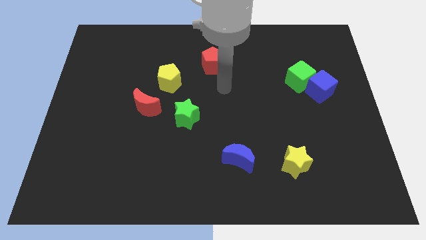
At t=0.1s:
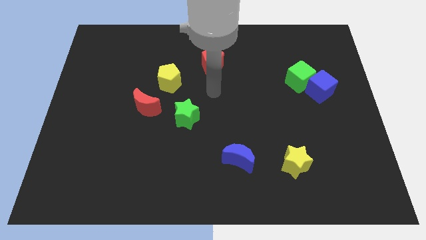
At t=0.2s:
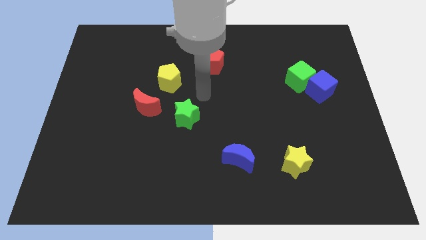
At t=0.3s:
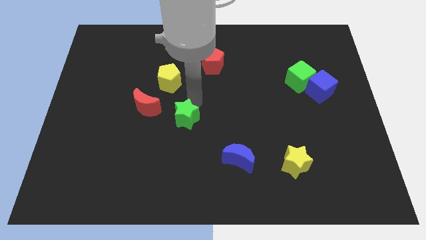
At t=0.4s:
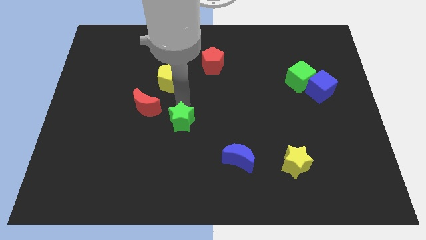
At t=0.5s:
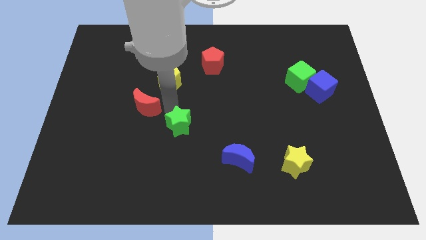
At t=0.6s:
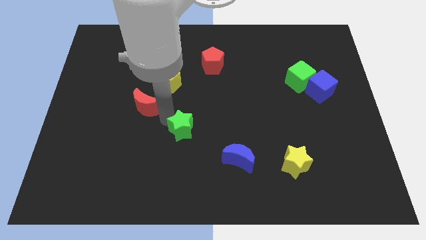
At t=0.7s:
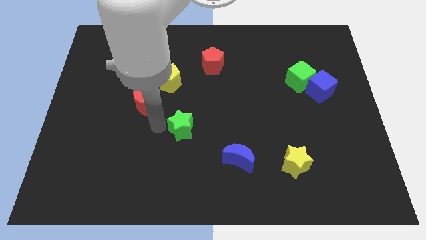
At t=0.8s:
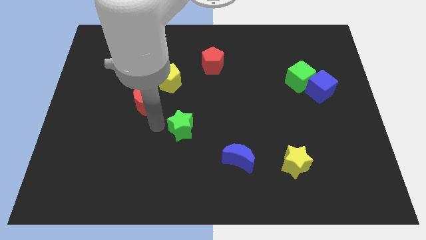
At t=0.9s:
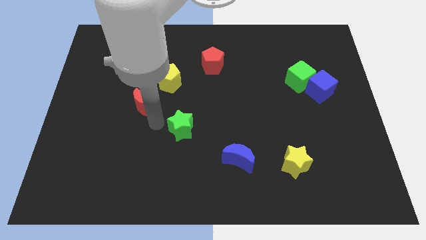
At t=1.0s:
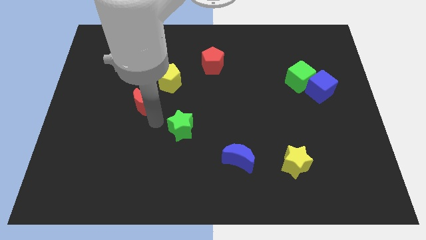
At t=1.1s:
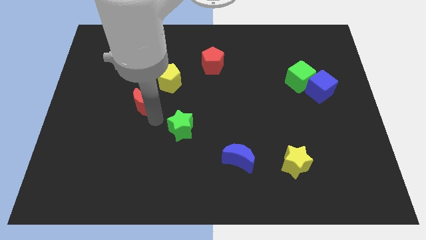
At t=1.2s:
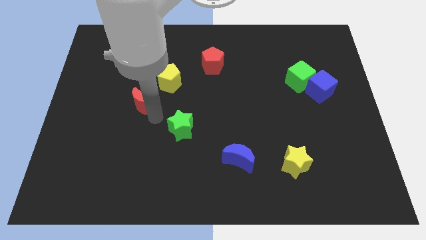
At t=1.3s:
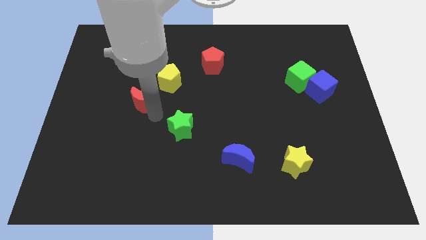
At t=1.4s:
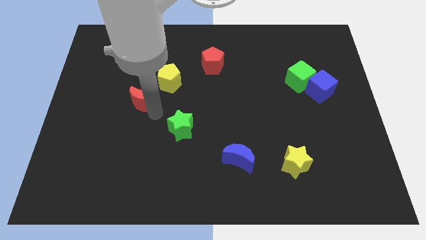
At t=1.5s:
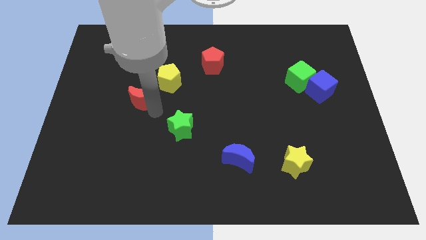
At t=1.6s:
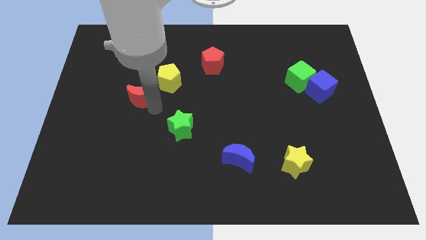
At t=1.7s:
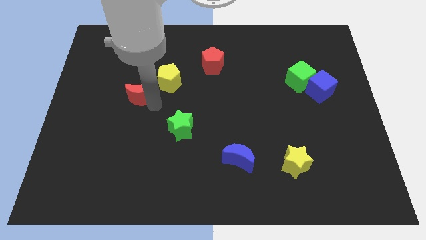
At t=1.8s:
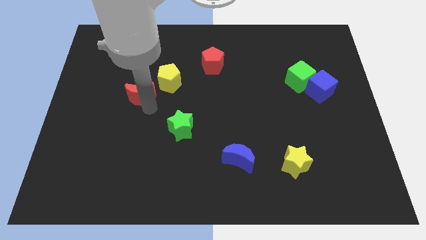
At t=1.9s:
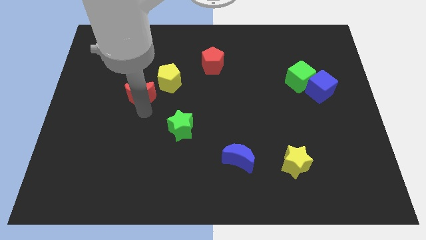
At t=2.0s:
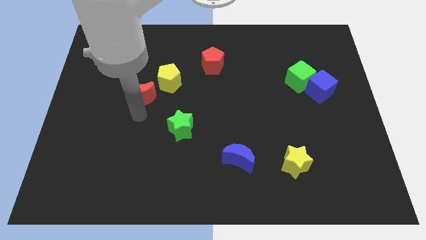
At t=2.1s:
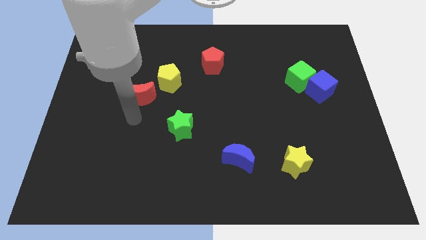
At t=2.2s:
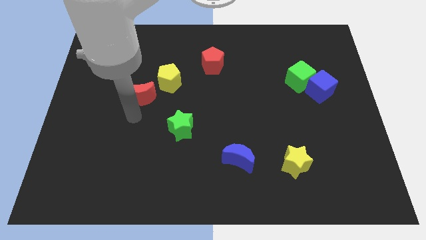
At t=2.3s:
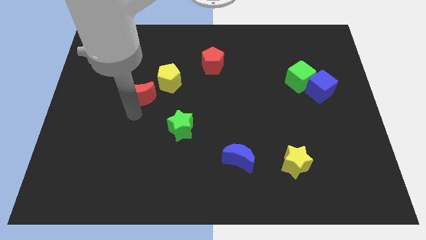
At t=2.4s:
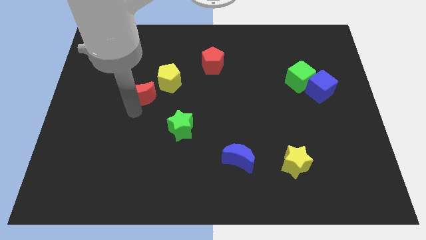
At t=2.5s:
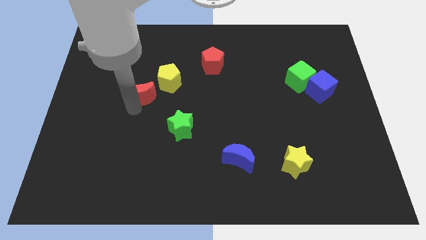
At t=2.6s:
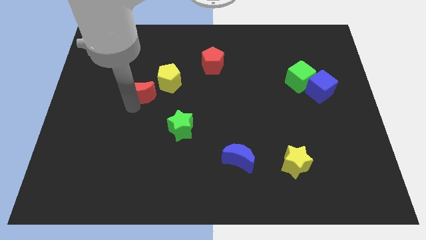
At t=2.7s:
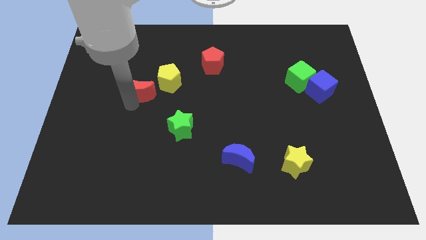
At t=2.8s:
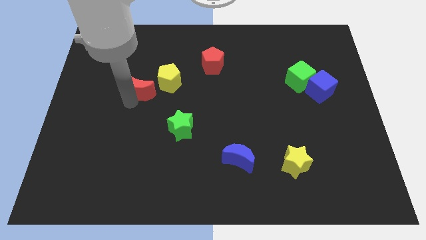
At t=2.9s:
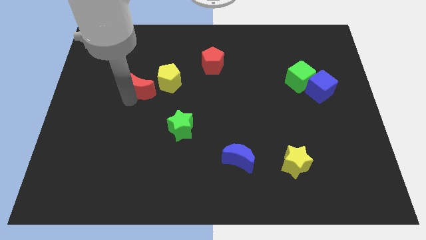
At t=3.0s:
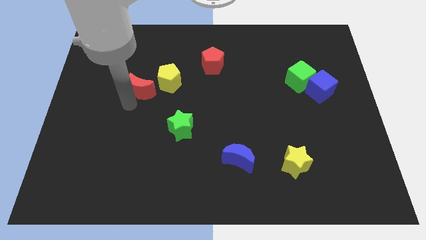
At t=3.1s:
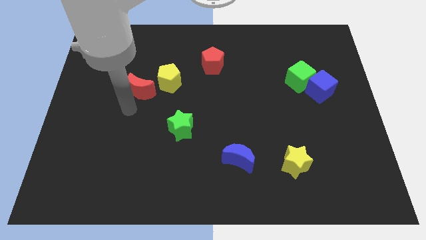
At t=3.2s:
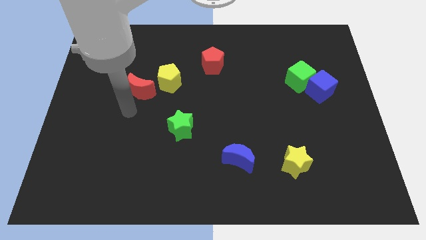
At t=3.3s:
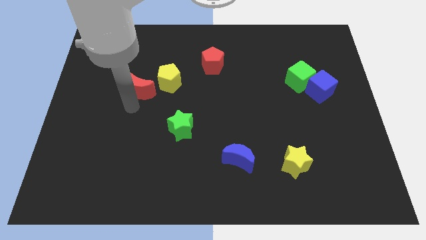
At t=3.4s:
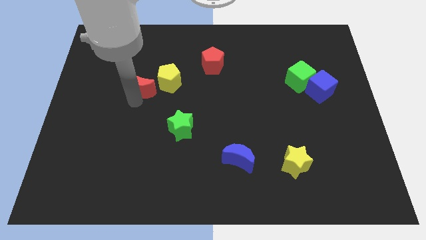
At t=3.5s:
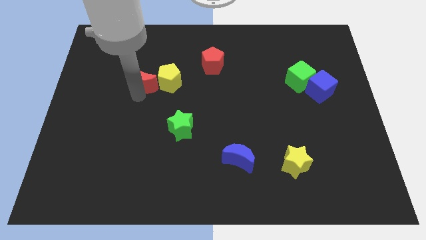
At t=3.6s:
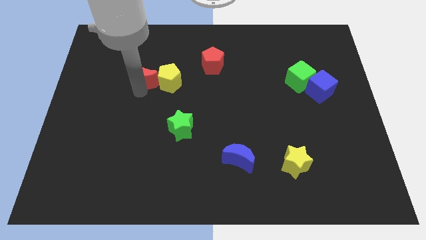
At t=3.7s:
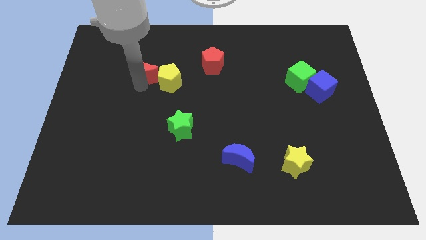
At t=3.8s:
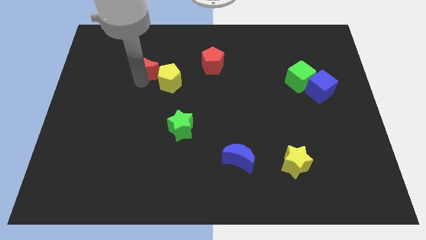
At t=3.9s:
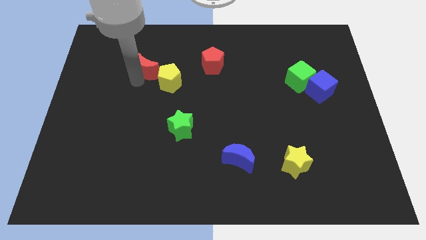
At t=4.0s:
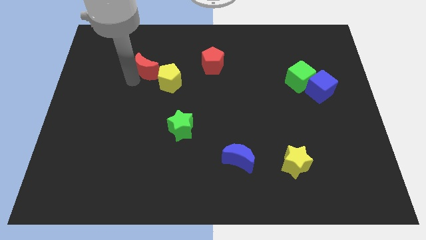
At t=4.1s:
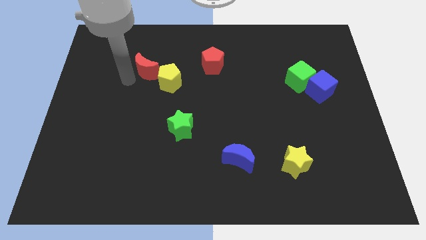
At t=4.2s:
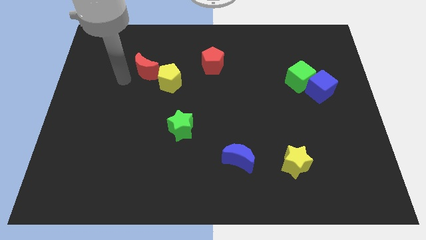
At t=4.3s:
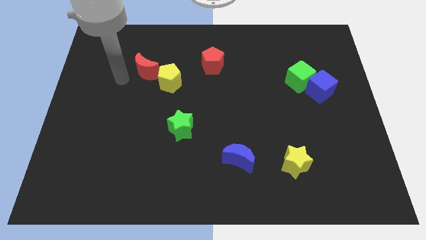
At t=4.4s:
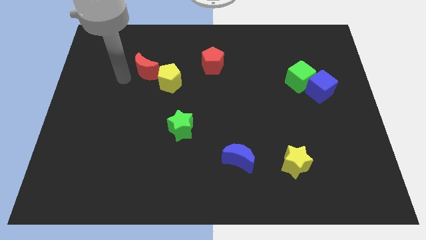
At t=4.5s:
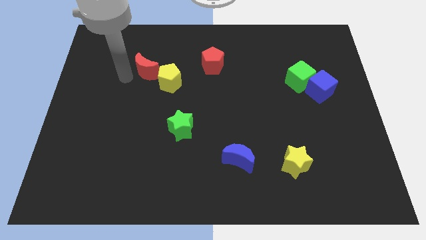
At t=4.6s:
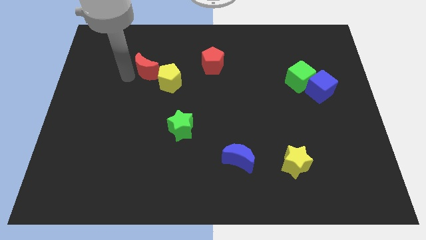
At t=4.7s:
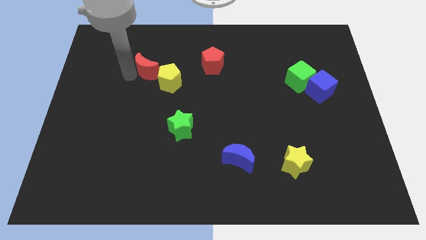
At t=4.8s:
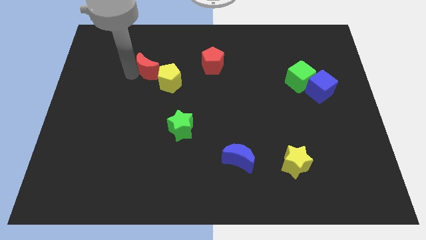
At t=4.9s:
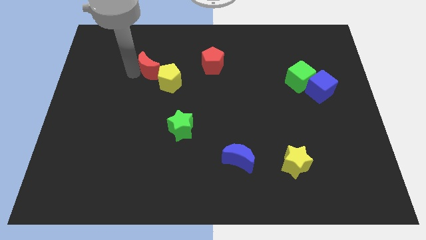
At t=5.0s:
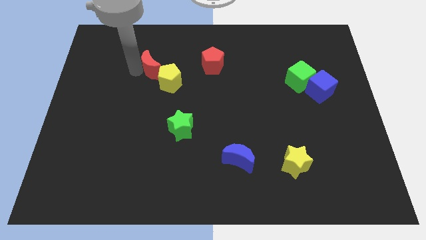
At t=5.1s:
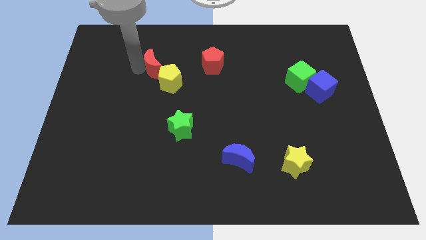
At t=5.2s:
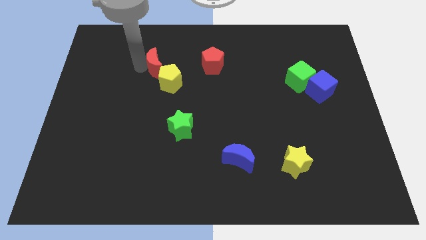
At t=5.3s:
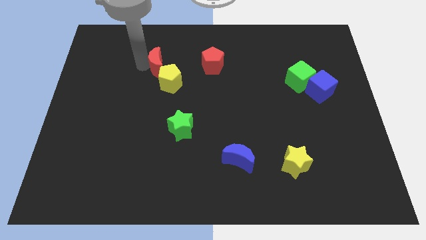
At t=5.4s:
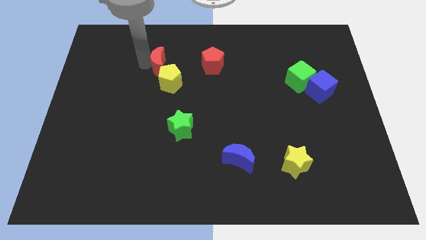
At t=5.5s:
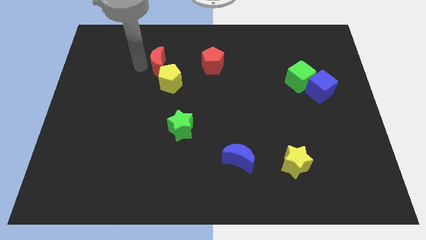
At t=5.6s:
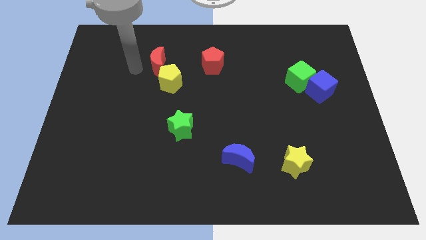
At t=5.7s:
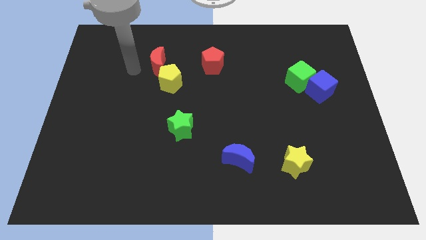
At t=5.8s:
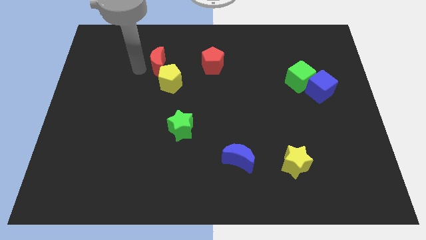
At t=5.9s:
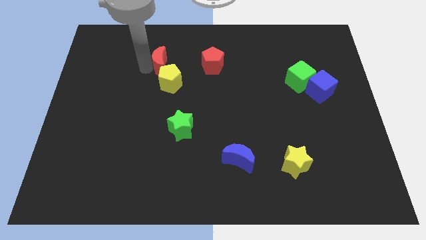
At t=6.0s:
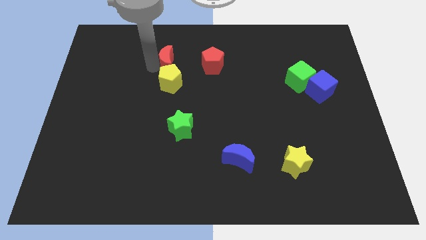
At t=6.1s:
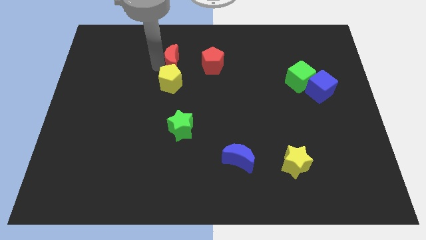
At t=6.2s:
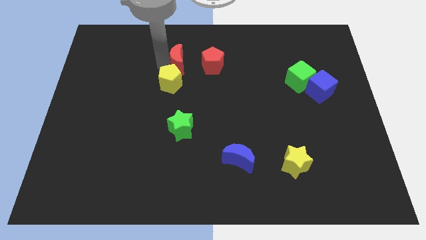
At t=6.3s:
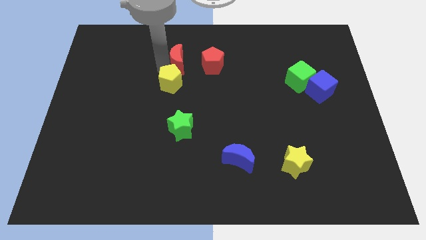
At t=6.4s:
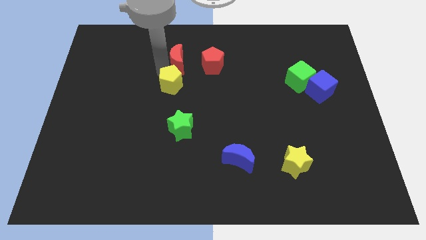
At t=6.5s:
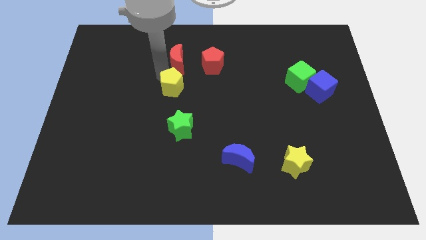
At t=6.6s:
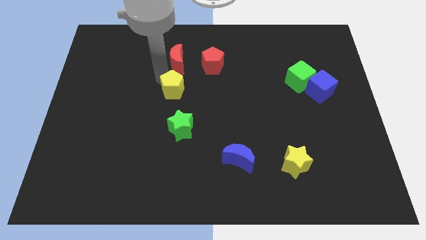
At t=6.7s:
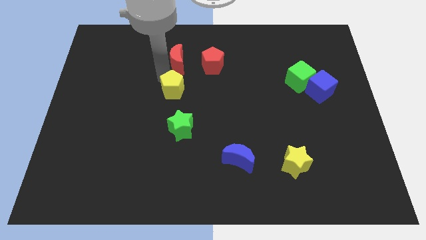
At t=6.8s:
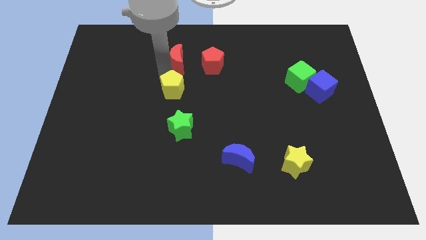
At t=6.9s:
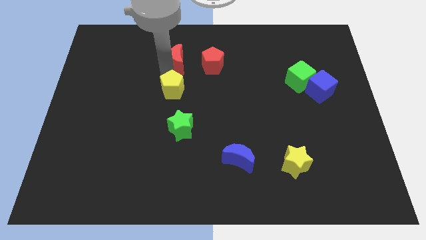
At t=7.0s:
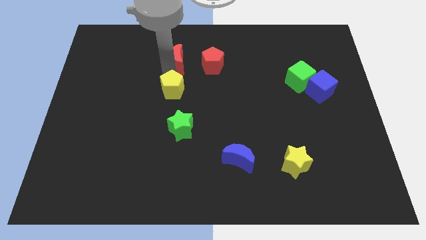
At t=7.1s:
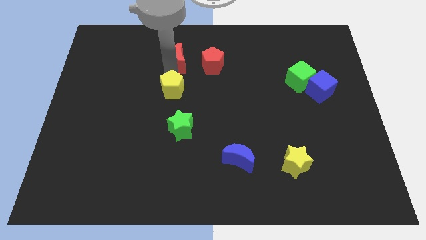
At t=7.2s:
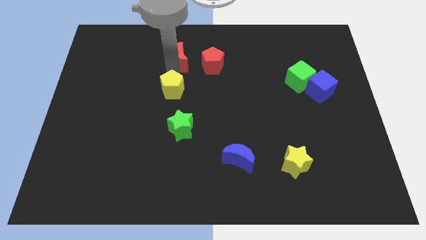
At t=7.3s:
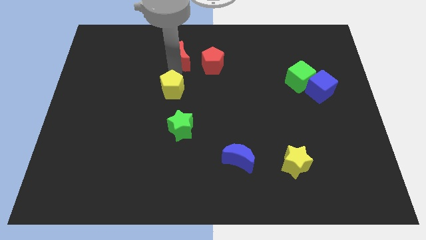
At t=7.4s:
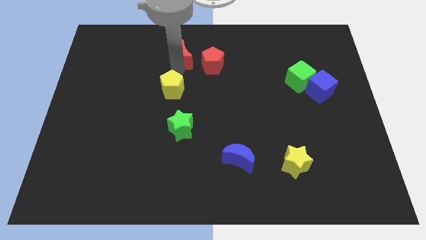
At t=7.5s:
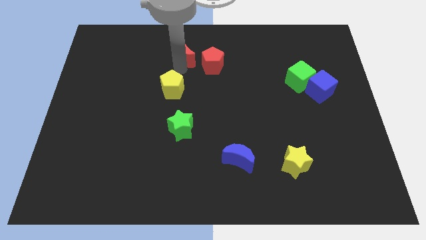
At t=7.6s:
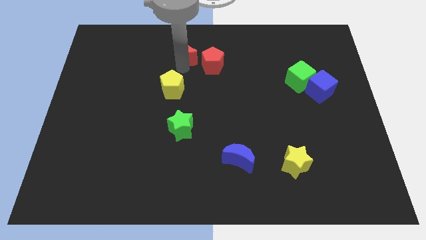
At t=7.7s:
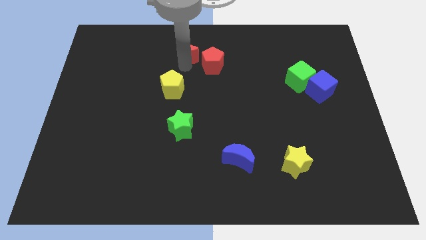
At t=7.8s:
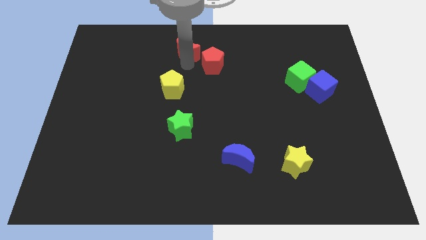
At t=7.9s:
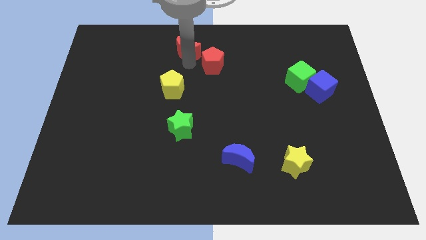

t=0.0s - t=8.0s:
slide the red moon to the top
